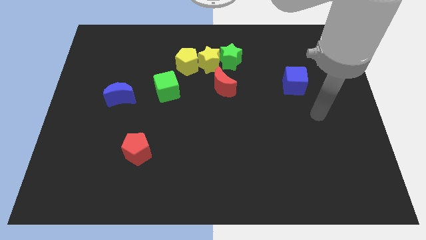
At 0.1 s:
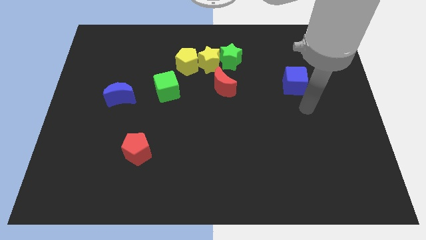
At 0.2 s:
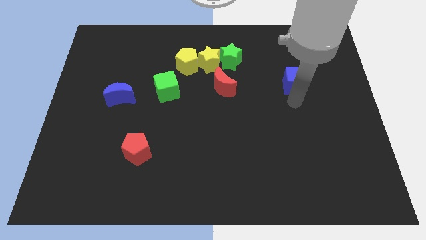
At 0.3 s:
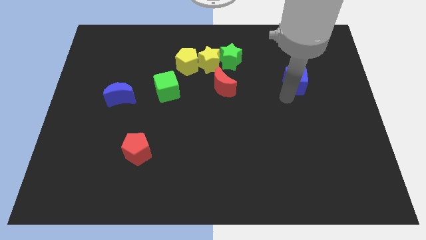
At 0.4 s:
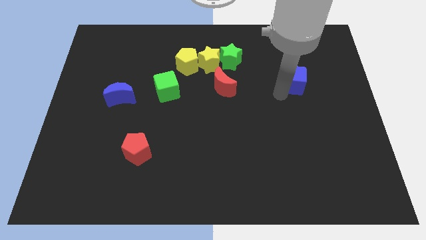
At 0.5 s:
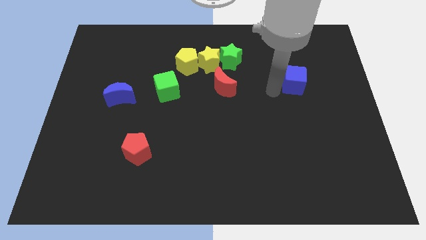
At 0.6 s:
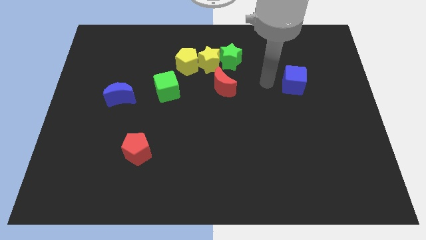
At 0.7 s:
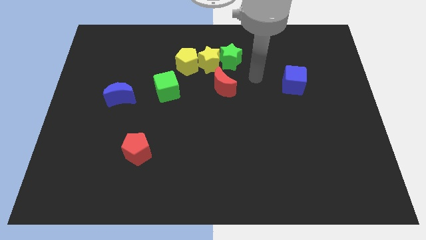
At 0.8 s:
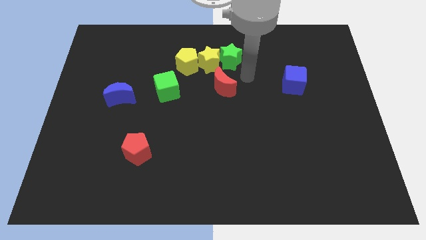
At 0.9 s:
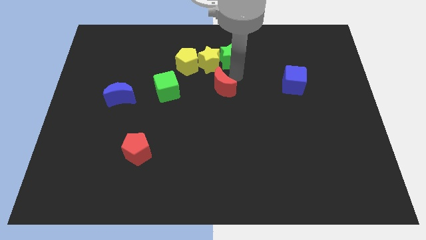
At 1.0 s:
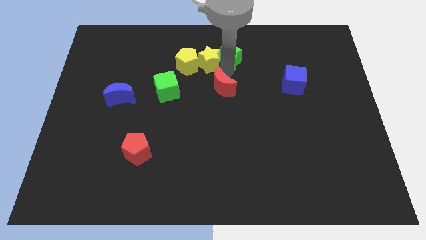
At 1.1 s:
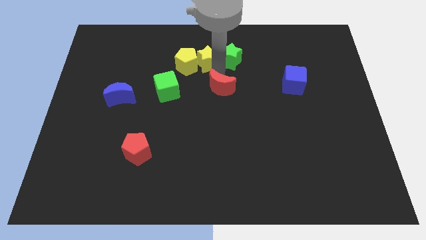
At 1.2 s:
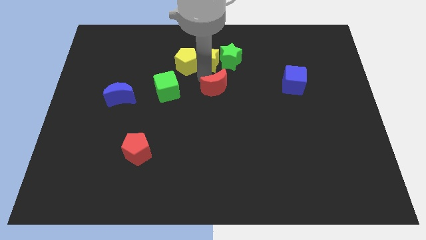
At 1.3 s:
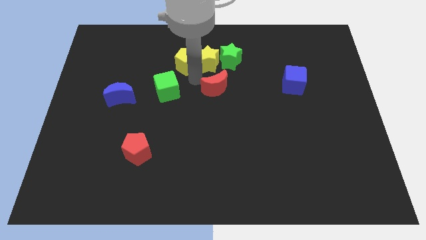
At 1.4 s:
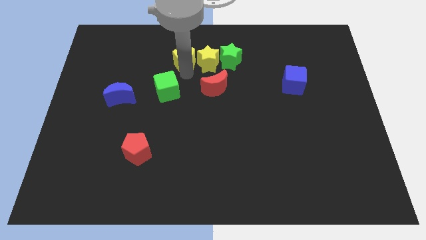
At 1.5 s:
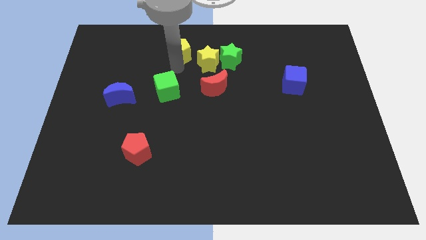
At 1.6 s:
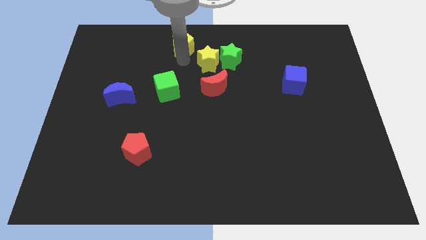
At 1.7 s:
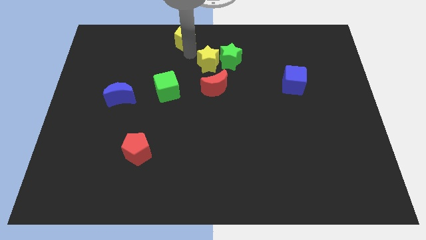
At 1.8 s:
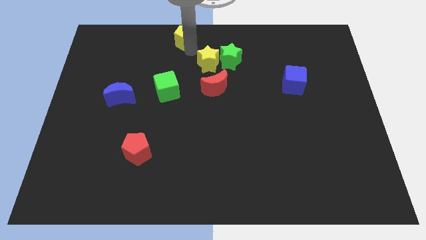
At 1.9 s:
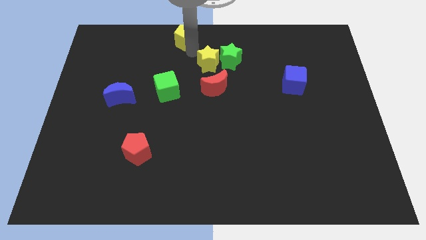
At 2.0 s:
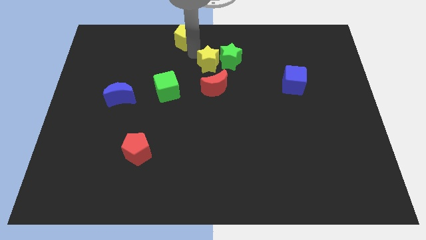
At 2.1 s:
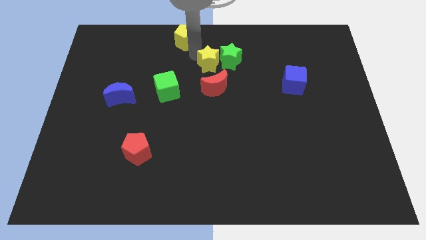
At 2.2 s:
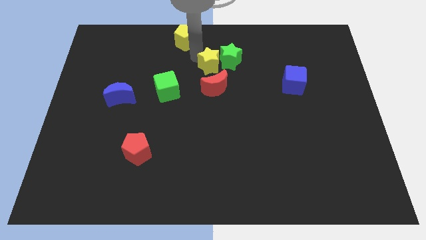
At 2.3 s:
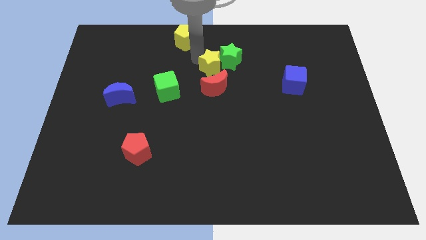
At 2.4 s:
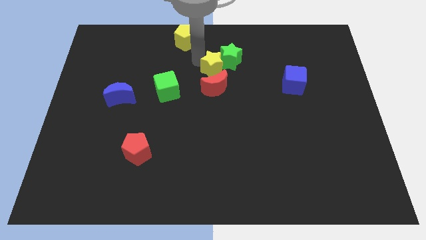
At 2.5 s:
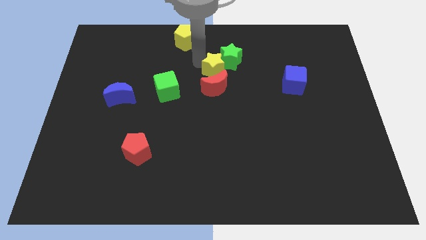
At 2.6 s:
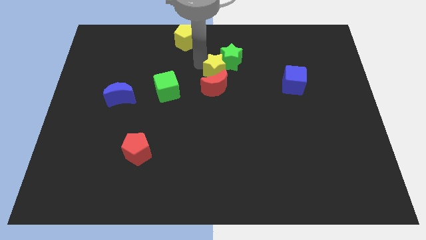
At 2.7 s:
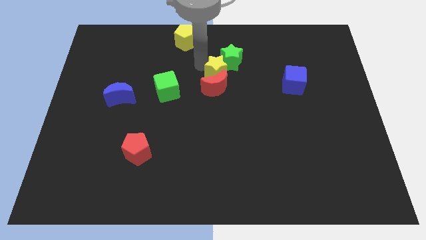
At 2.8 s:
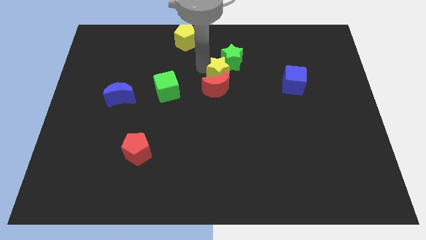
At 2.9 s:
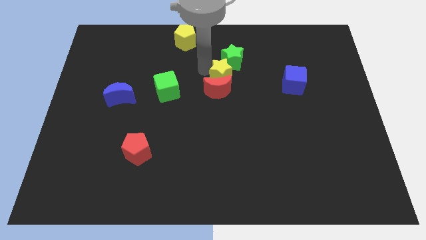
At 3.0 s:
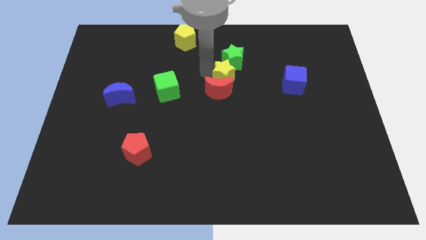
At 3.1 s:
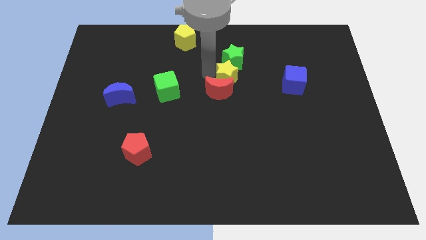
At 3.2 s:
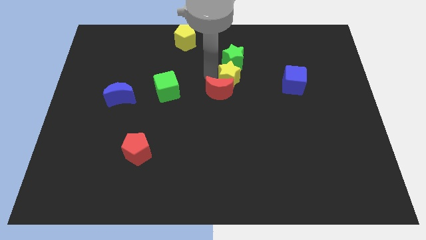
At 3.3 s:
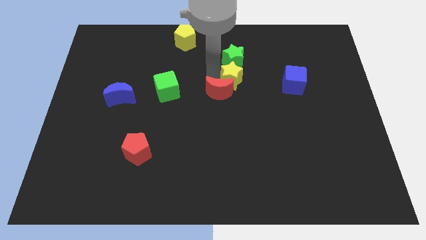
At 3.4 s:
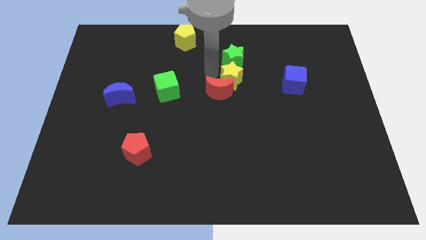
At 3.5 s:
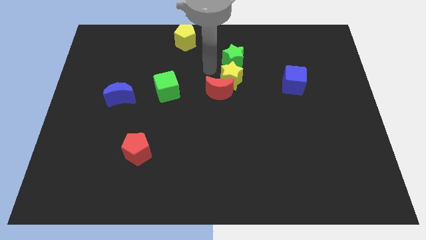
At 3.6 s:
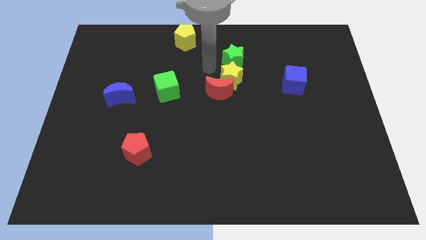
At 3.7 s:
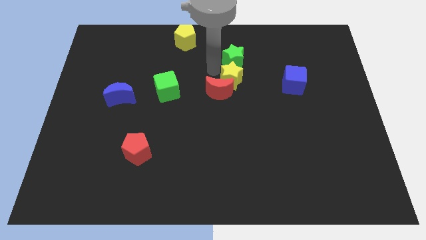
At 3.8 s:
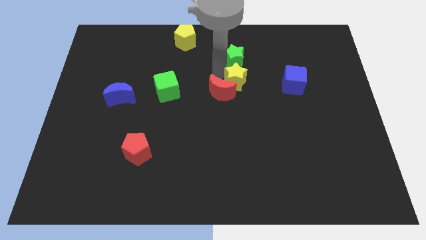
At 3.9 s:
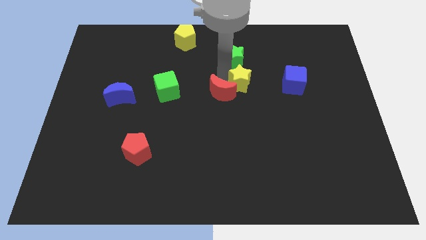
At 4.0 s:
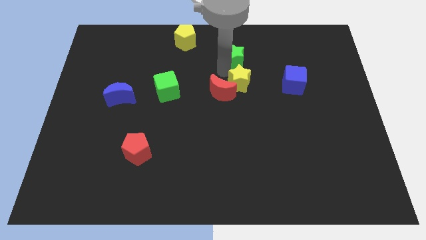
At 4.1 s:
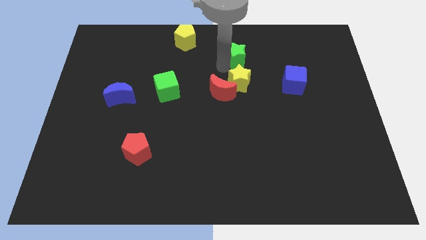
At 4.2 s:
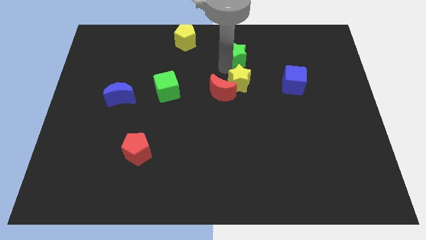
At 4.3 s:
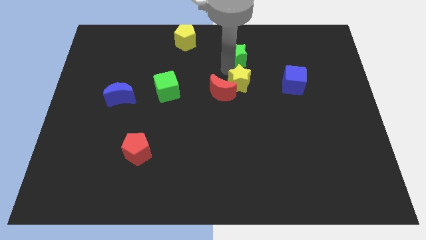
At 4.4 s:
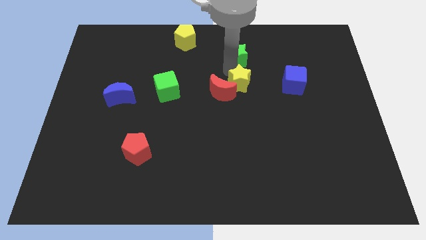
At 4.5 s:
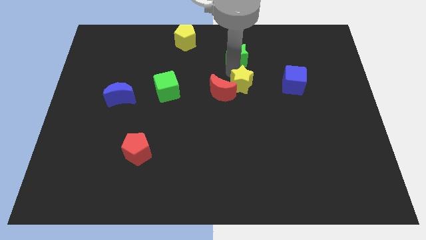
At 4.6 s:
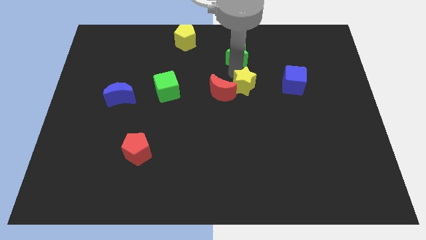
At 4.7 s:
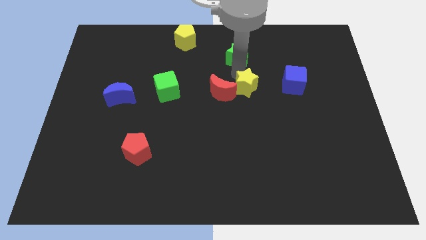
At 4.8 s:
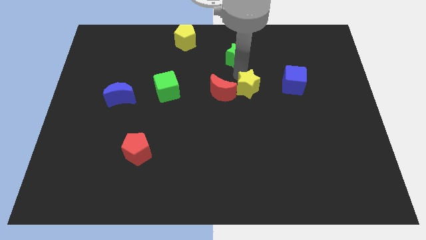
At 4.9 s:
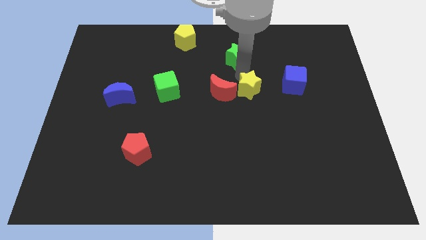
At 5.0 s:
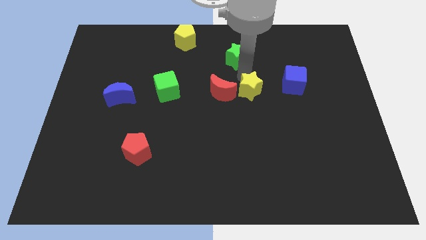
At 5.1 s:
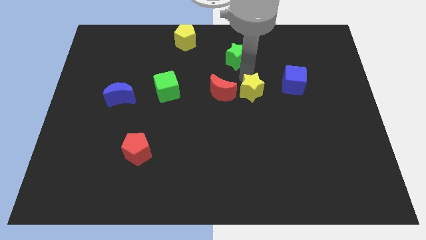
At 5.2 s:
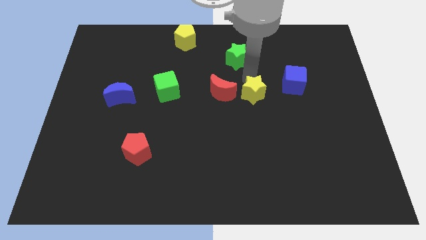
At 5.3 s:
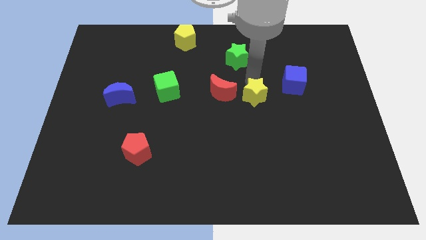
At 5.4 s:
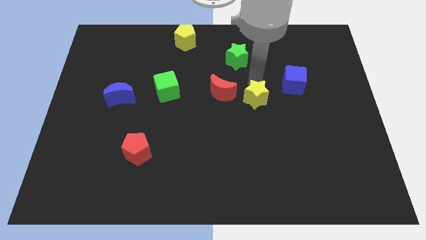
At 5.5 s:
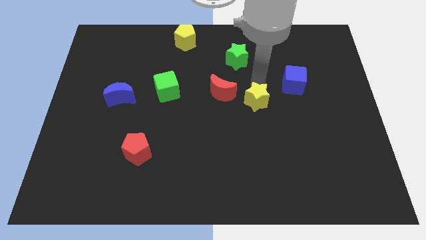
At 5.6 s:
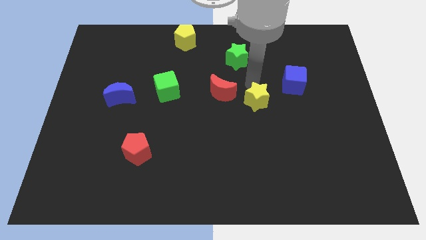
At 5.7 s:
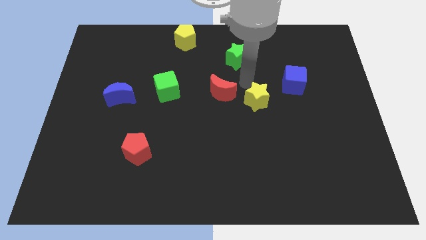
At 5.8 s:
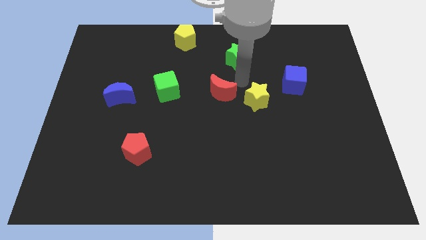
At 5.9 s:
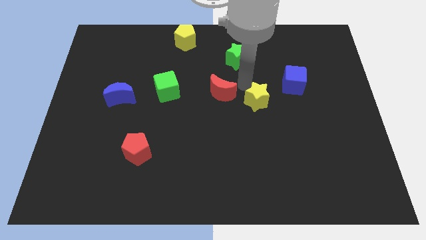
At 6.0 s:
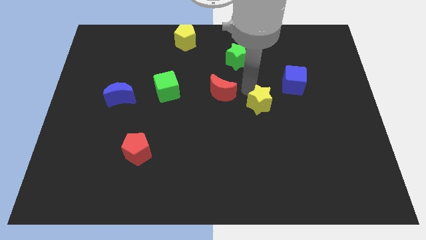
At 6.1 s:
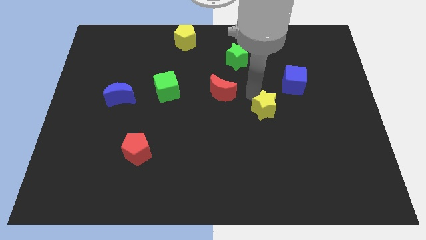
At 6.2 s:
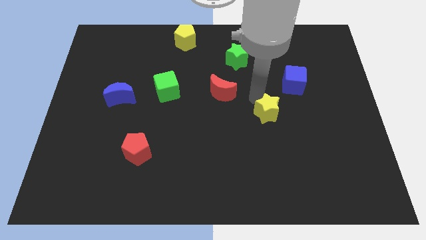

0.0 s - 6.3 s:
push the yellow star downwards and to the right diagonally

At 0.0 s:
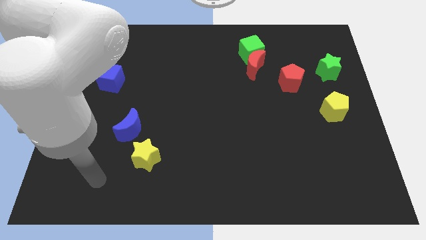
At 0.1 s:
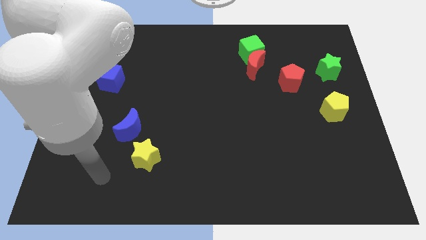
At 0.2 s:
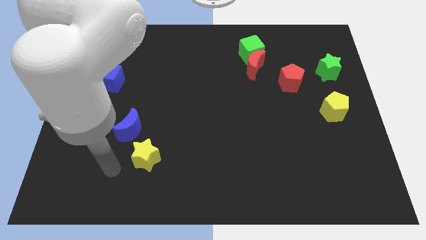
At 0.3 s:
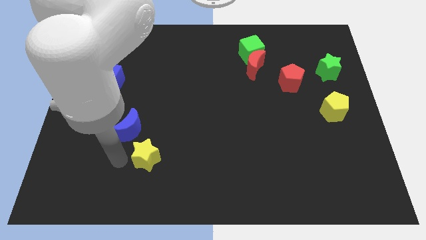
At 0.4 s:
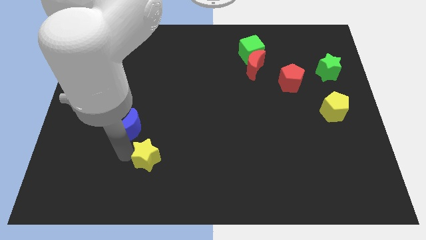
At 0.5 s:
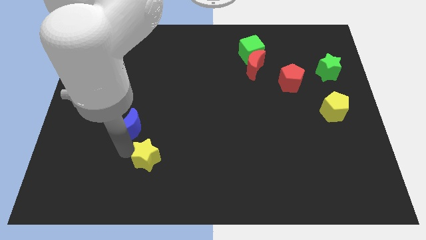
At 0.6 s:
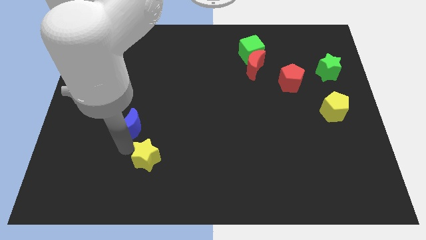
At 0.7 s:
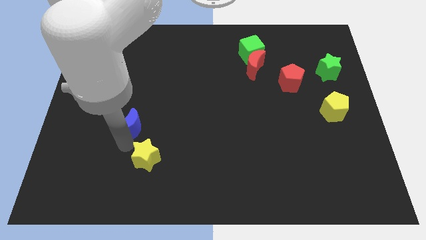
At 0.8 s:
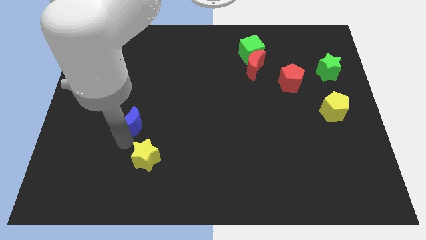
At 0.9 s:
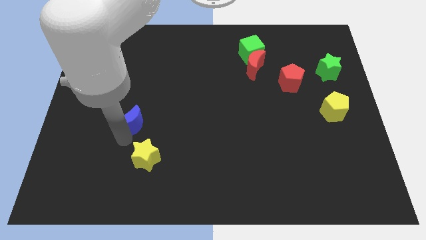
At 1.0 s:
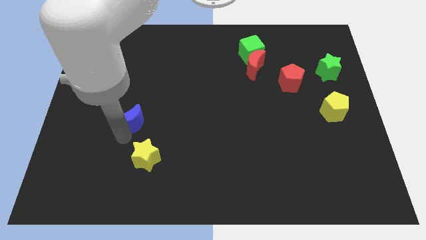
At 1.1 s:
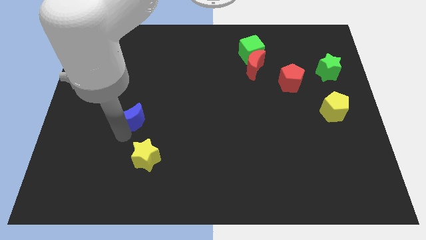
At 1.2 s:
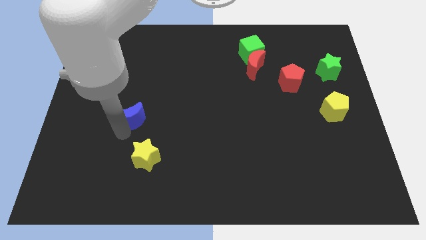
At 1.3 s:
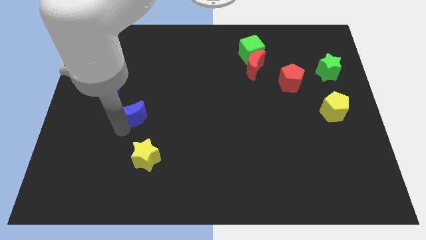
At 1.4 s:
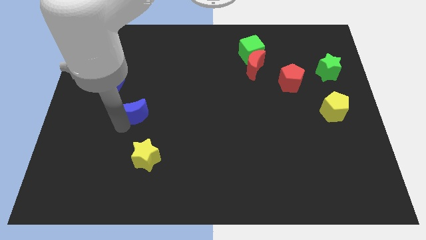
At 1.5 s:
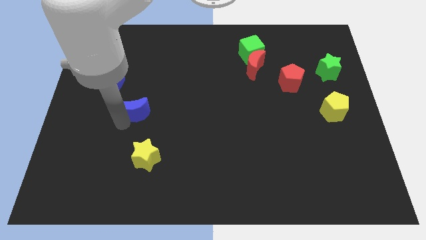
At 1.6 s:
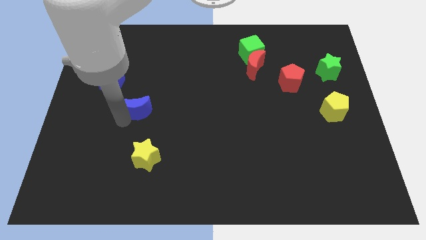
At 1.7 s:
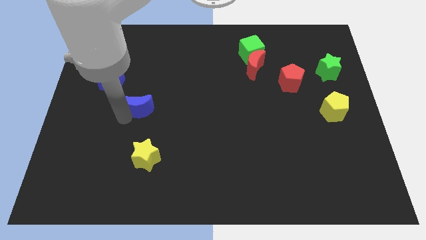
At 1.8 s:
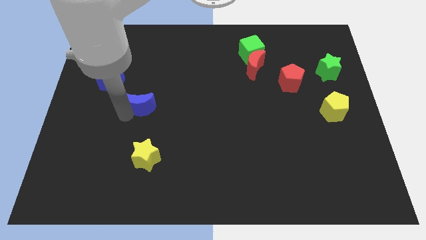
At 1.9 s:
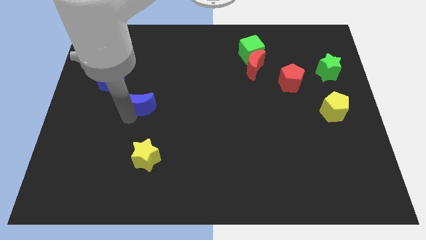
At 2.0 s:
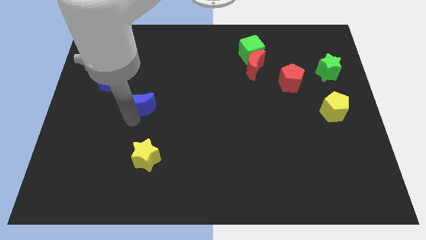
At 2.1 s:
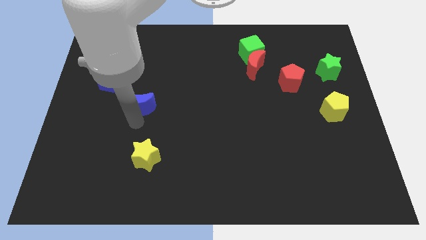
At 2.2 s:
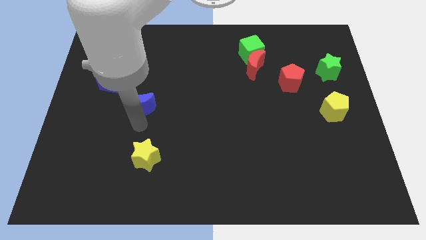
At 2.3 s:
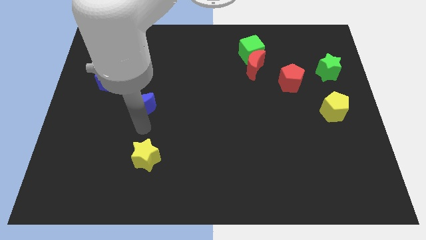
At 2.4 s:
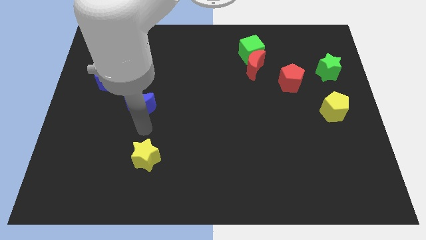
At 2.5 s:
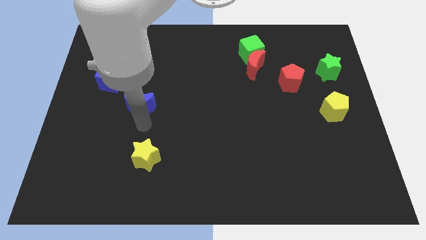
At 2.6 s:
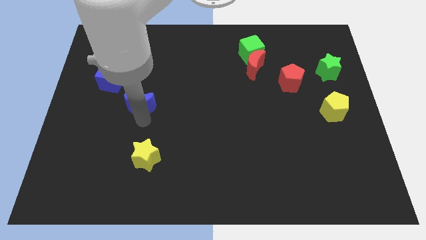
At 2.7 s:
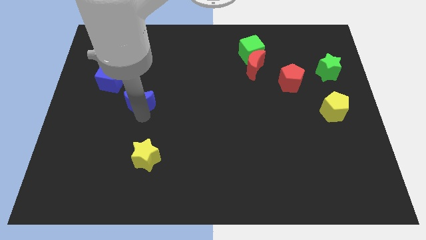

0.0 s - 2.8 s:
push the blue moon slightly upwards
